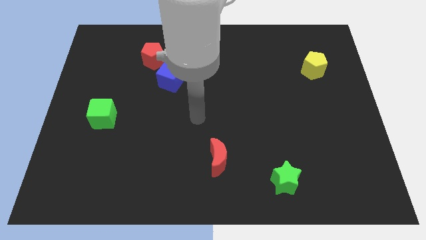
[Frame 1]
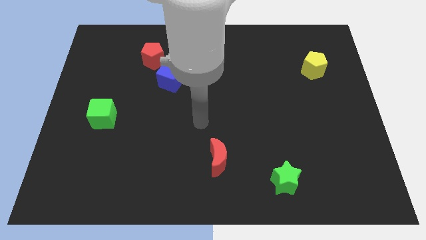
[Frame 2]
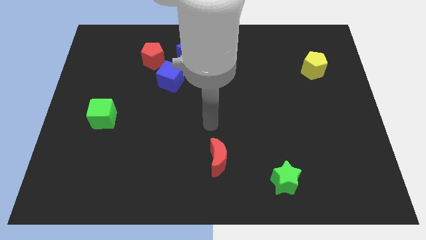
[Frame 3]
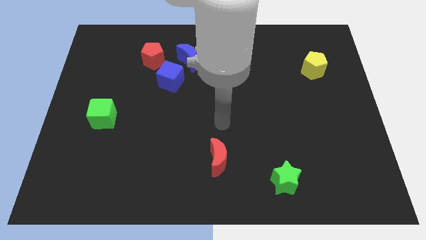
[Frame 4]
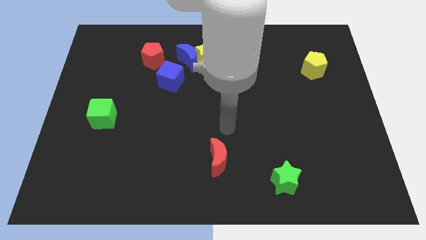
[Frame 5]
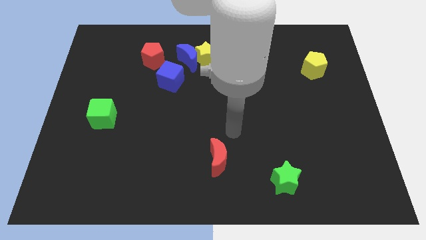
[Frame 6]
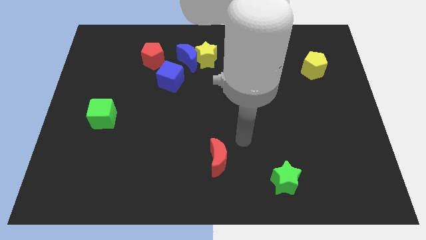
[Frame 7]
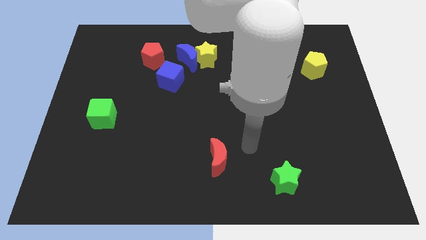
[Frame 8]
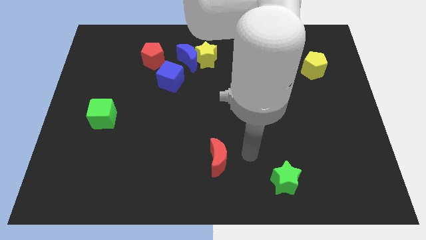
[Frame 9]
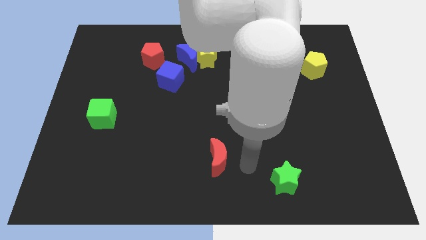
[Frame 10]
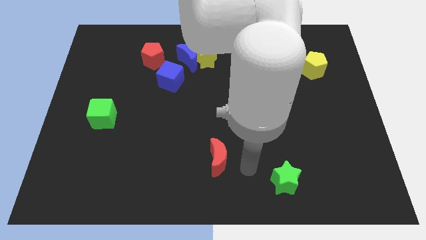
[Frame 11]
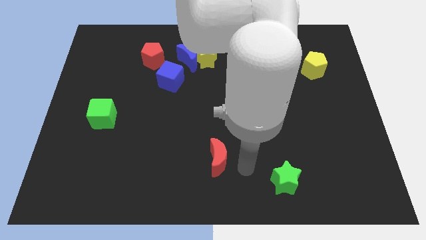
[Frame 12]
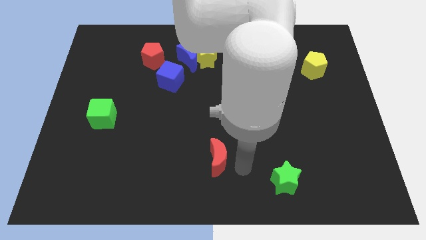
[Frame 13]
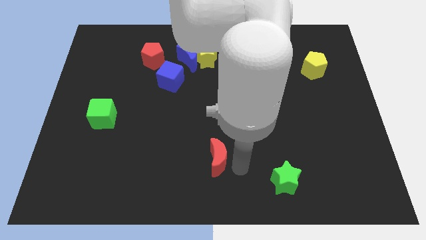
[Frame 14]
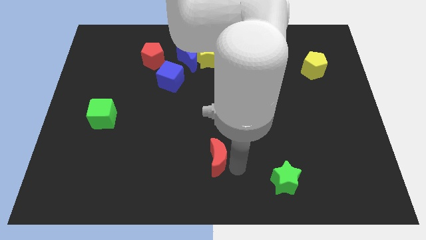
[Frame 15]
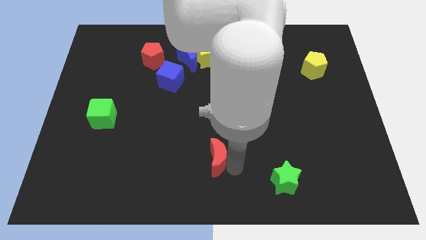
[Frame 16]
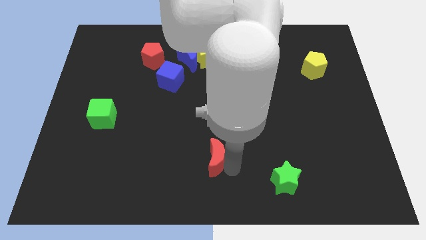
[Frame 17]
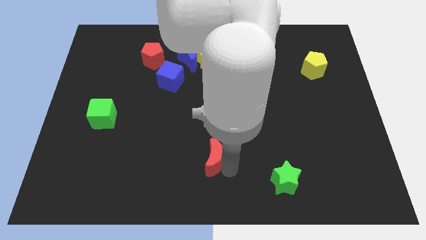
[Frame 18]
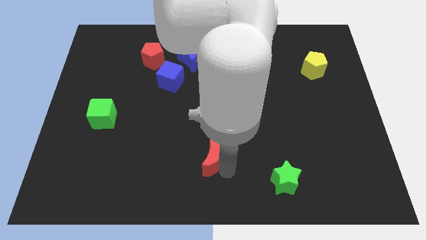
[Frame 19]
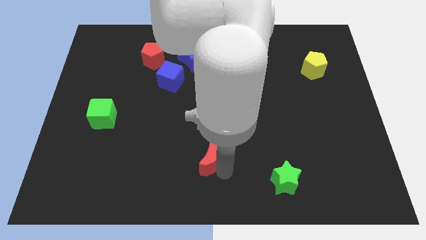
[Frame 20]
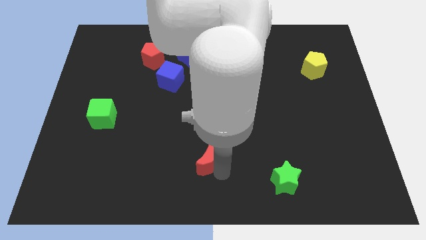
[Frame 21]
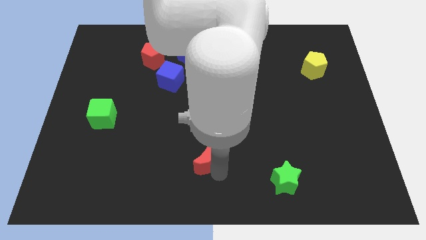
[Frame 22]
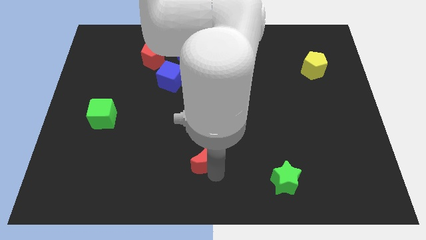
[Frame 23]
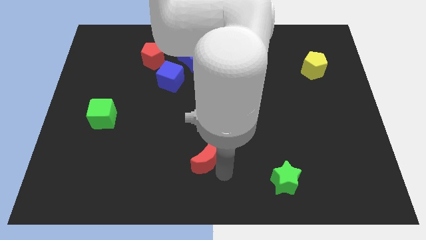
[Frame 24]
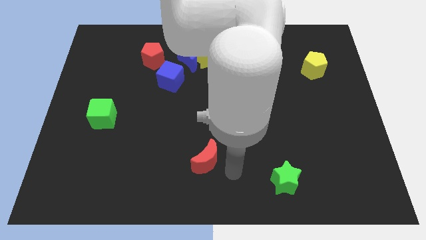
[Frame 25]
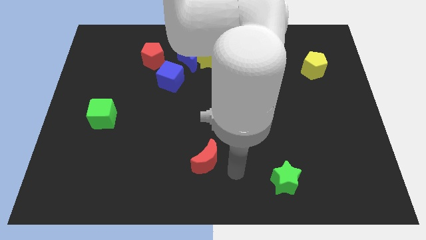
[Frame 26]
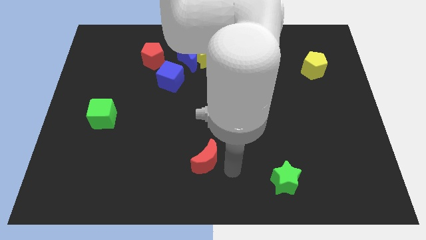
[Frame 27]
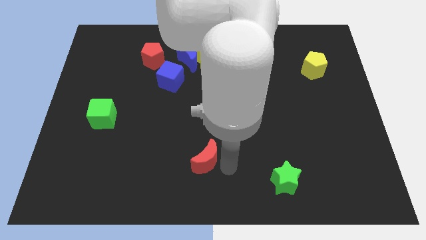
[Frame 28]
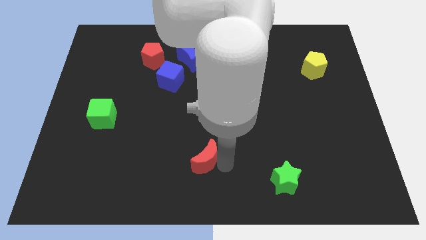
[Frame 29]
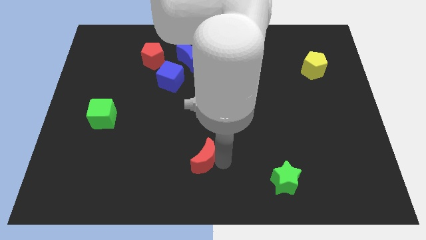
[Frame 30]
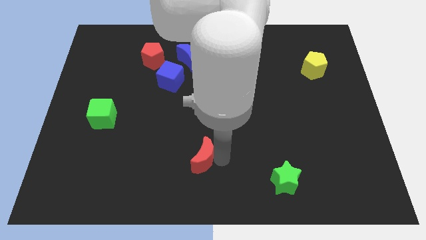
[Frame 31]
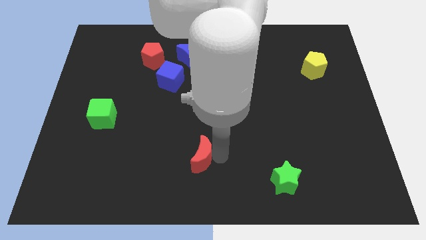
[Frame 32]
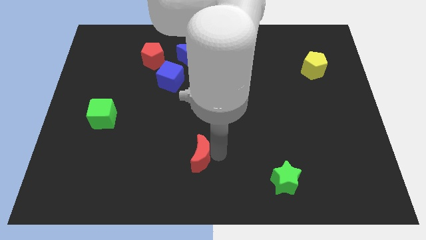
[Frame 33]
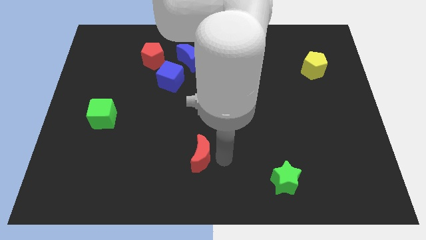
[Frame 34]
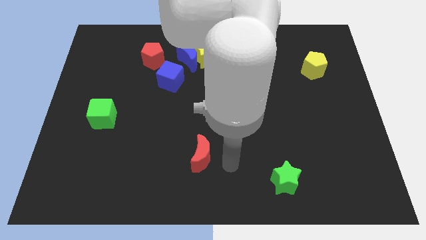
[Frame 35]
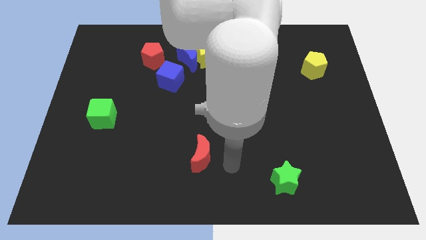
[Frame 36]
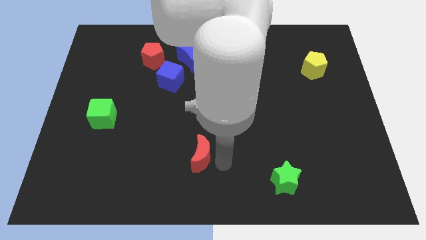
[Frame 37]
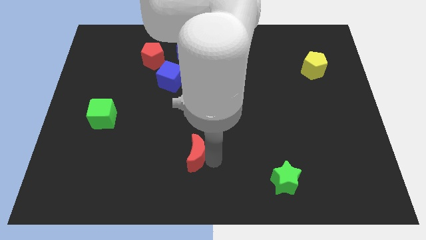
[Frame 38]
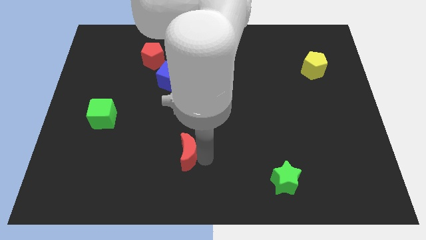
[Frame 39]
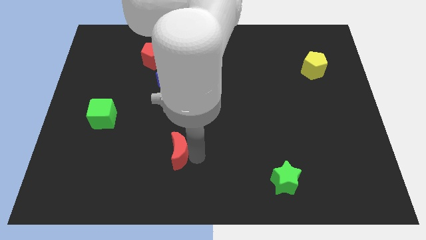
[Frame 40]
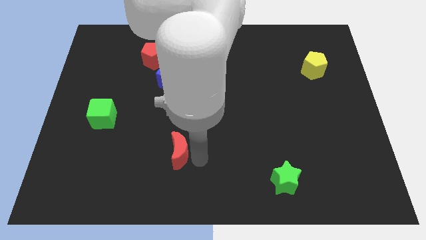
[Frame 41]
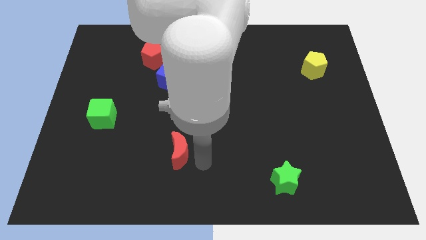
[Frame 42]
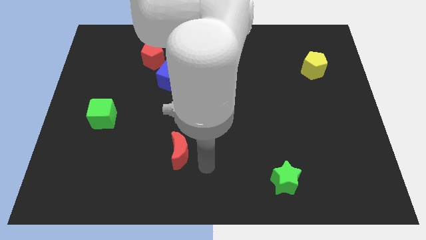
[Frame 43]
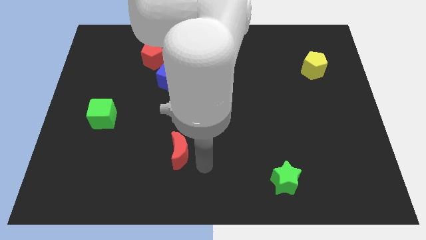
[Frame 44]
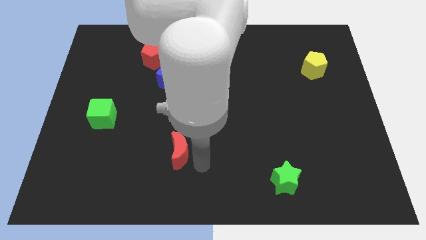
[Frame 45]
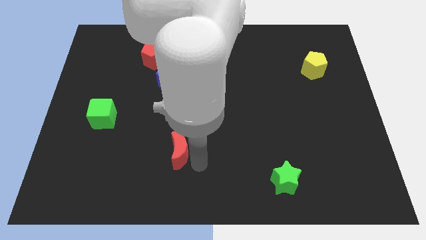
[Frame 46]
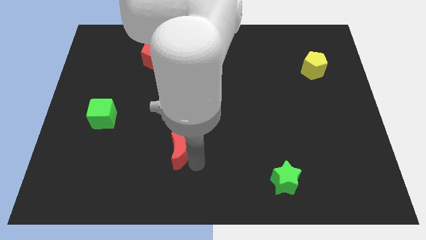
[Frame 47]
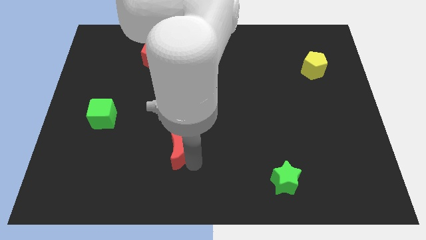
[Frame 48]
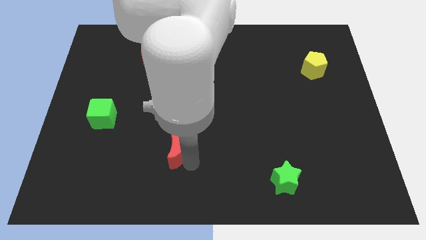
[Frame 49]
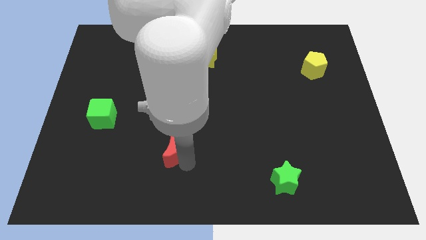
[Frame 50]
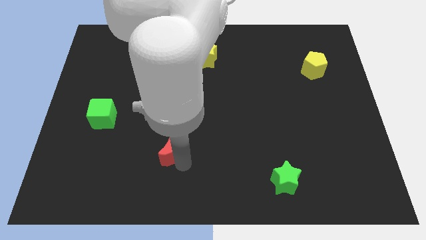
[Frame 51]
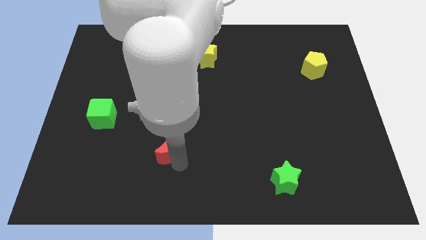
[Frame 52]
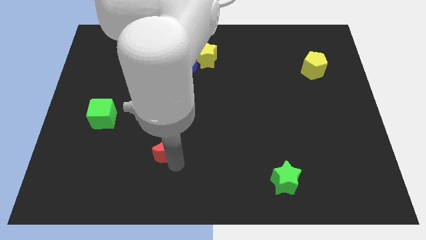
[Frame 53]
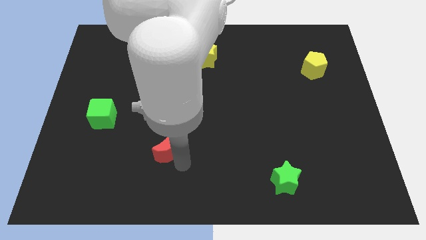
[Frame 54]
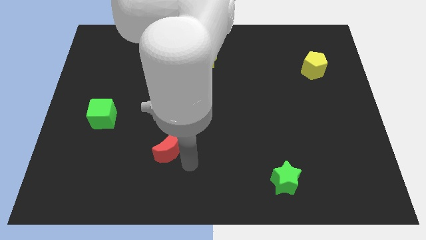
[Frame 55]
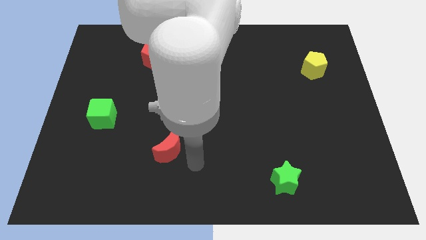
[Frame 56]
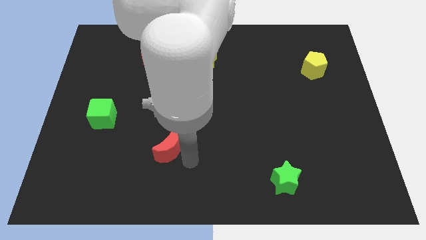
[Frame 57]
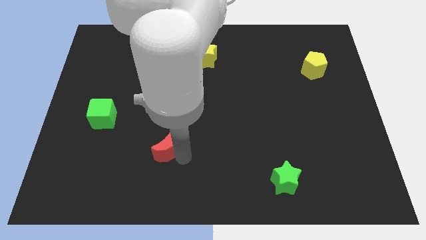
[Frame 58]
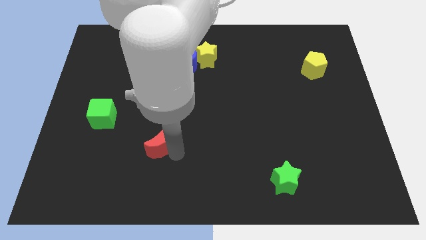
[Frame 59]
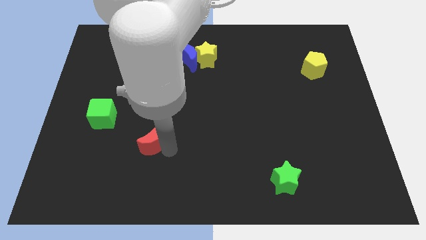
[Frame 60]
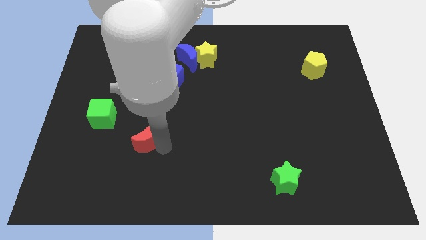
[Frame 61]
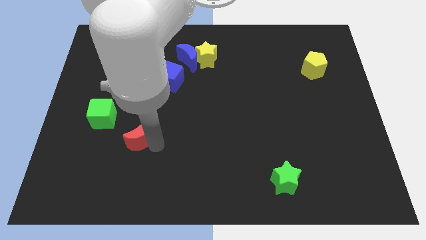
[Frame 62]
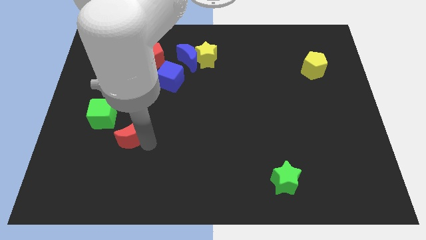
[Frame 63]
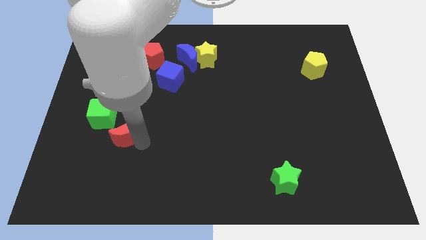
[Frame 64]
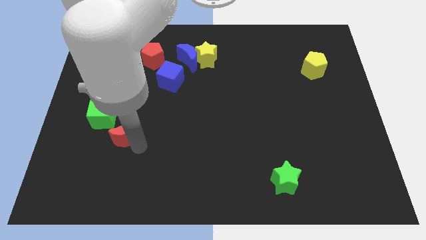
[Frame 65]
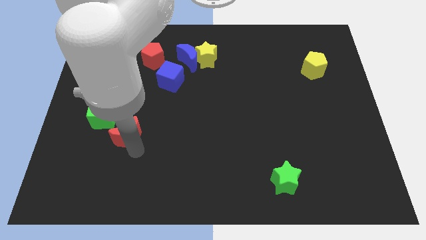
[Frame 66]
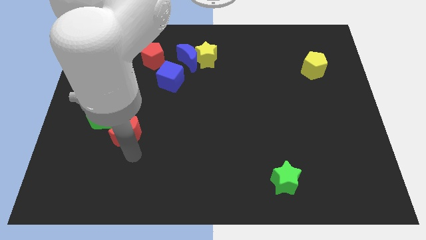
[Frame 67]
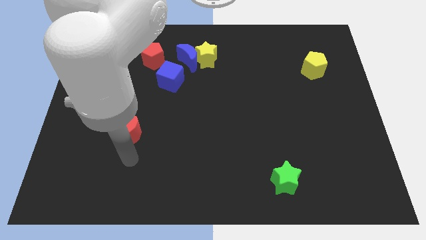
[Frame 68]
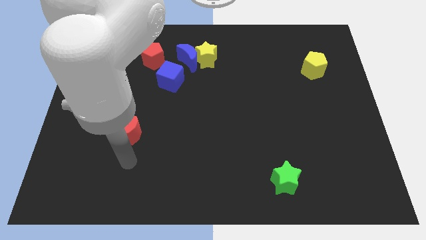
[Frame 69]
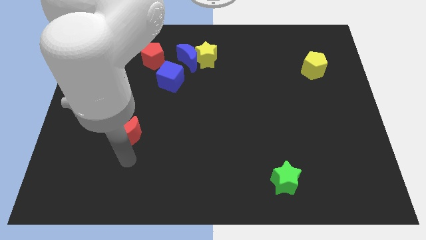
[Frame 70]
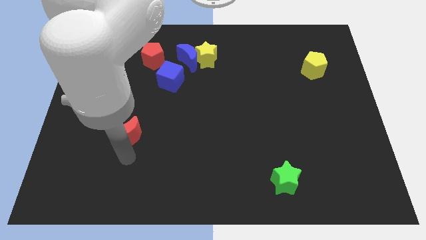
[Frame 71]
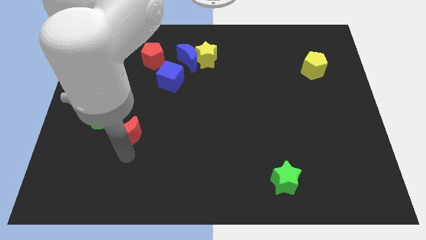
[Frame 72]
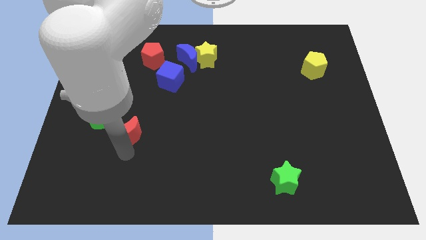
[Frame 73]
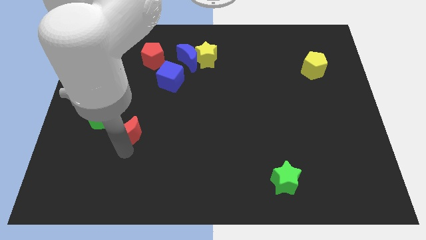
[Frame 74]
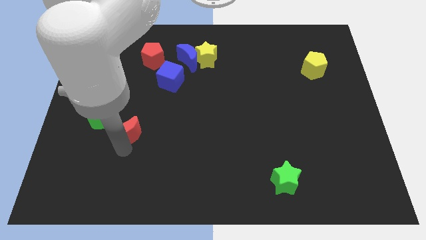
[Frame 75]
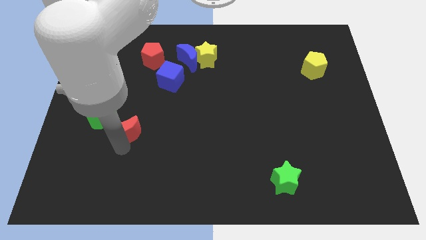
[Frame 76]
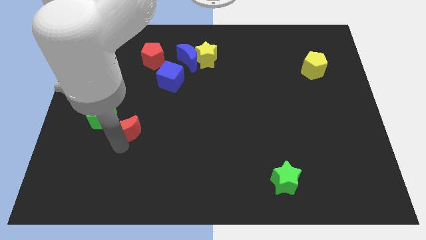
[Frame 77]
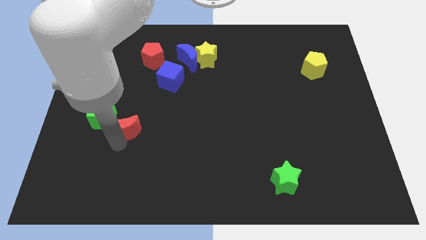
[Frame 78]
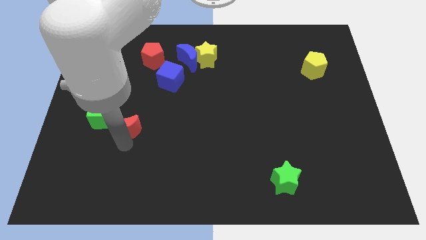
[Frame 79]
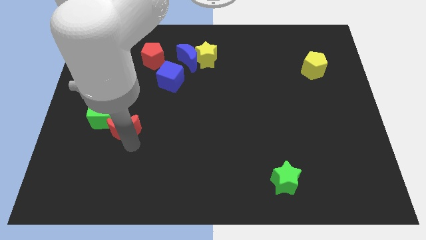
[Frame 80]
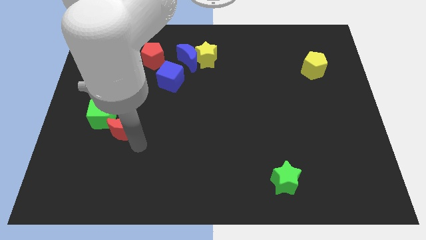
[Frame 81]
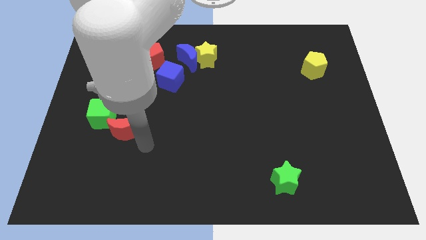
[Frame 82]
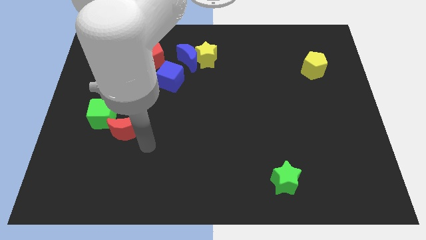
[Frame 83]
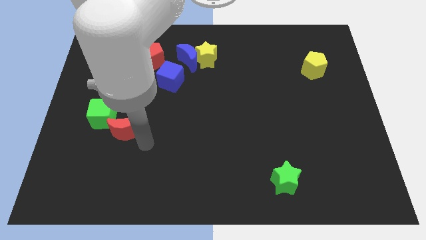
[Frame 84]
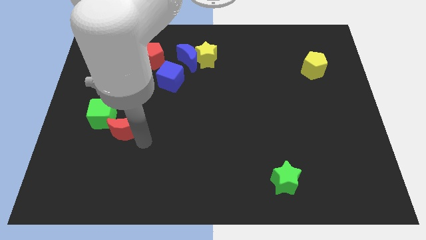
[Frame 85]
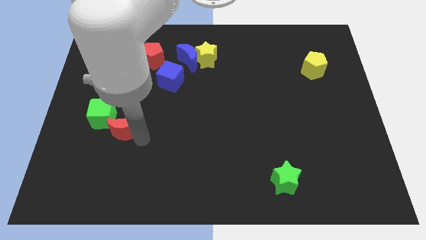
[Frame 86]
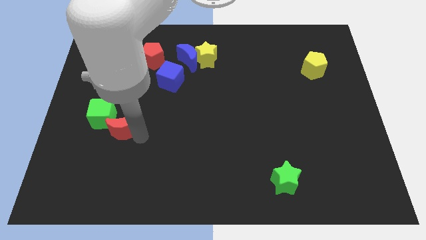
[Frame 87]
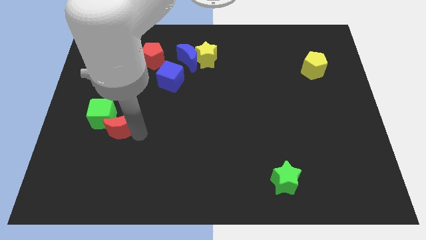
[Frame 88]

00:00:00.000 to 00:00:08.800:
slide the red moon to the green cube
